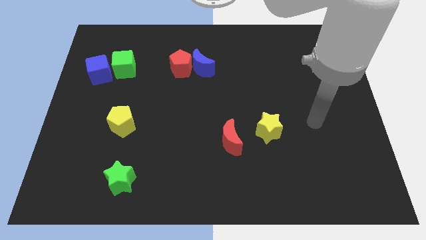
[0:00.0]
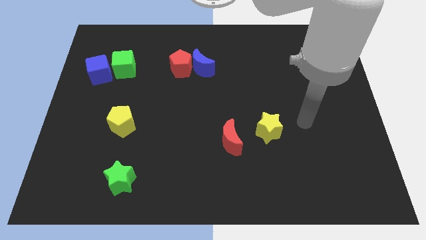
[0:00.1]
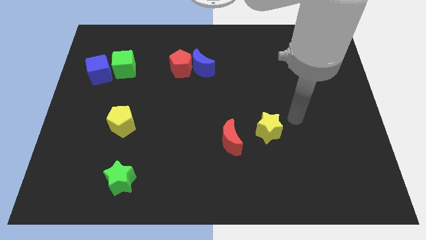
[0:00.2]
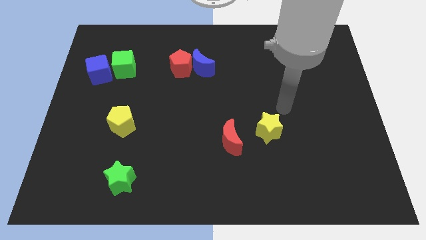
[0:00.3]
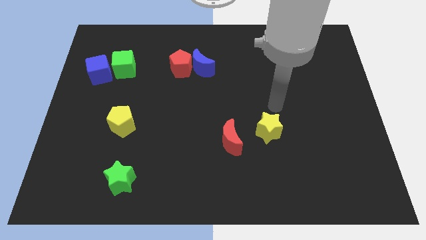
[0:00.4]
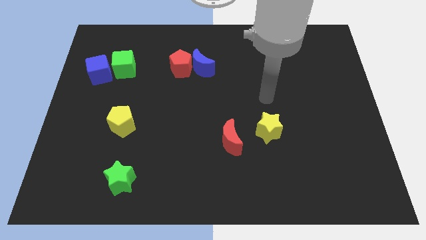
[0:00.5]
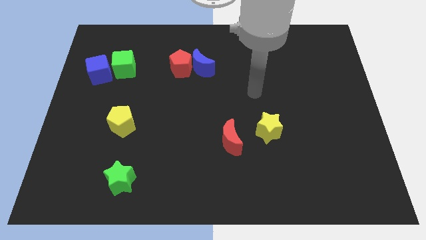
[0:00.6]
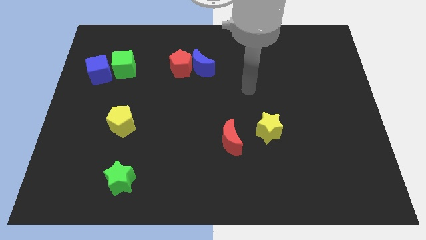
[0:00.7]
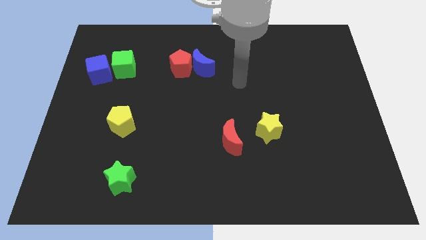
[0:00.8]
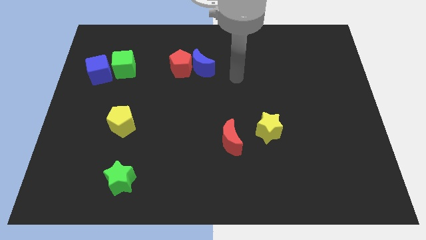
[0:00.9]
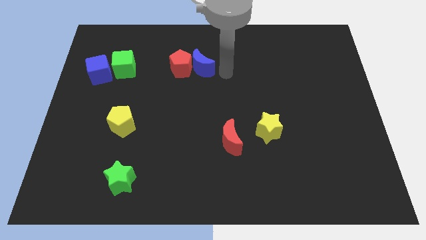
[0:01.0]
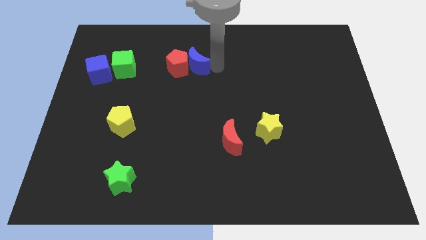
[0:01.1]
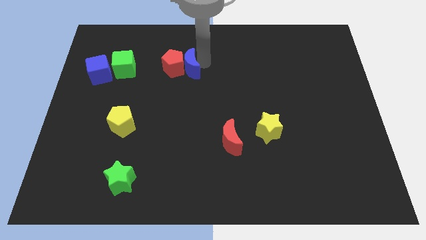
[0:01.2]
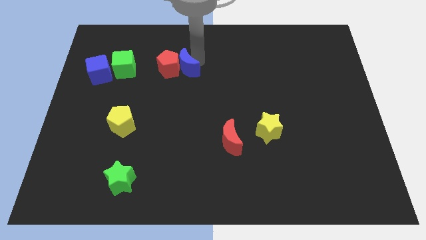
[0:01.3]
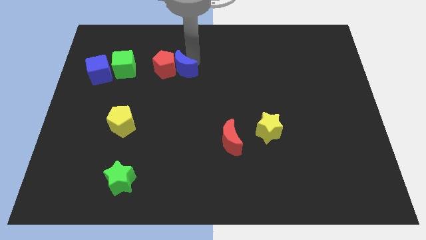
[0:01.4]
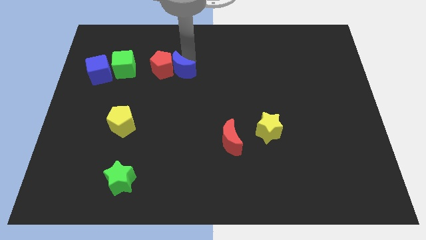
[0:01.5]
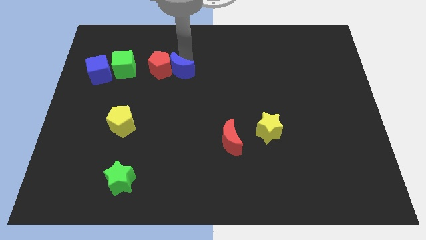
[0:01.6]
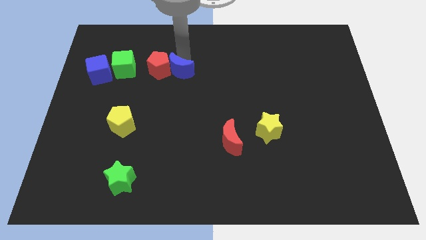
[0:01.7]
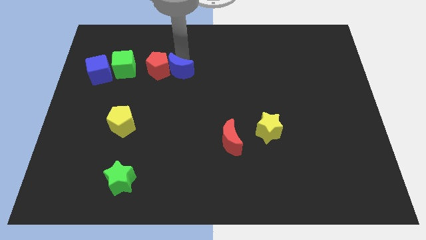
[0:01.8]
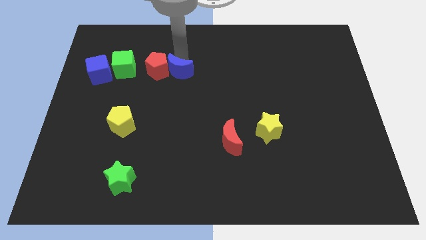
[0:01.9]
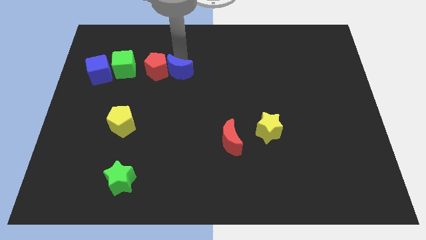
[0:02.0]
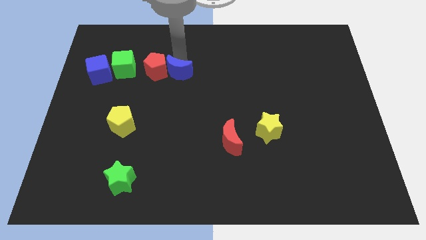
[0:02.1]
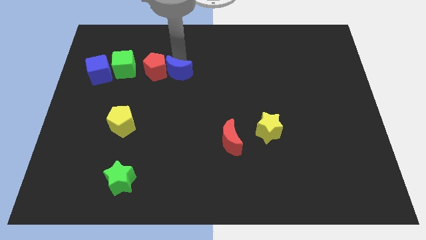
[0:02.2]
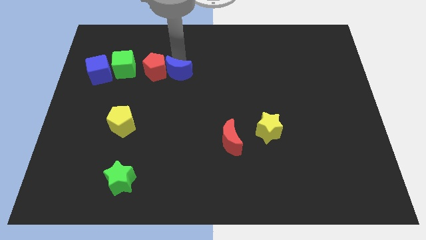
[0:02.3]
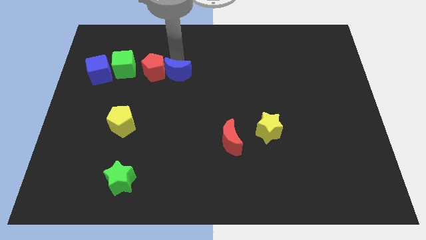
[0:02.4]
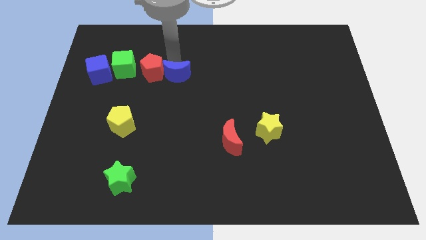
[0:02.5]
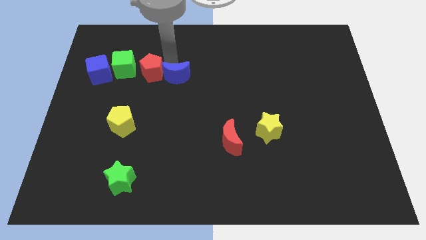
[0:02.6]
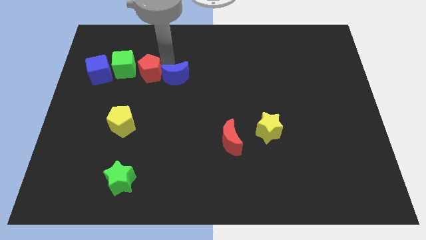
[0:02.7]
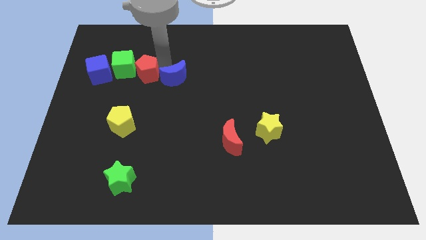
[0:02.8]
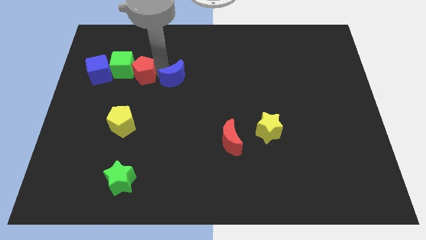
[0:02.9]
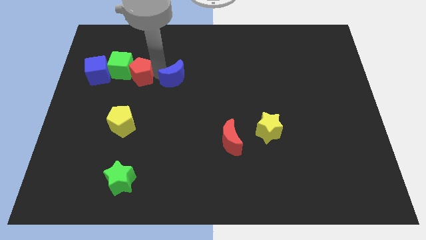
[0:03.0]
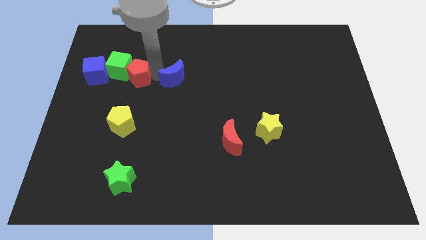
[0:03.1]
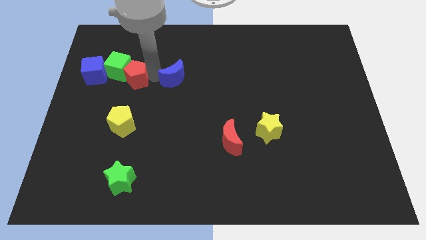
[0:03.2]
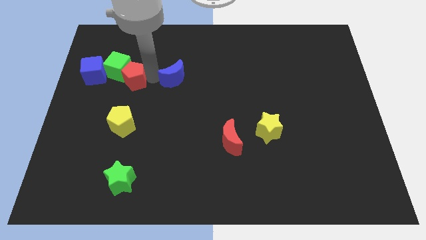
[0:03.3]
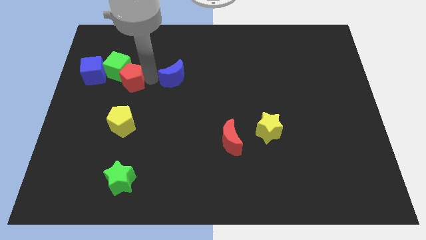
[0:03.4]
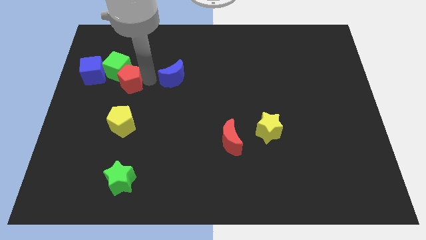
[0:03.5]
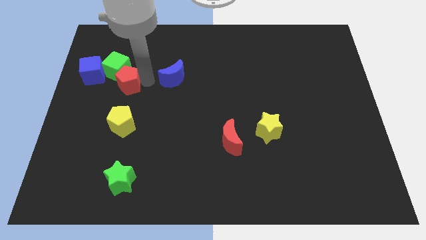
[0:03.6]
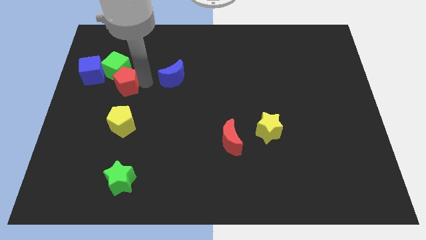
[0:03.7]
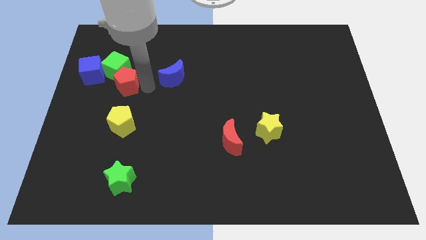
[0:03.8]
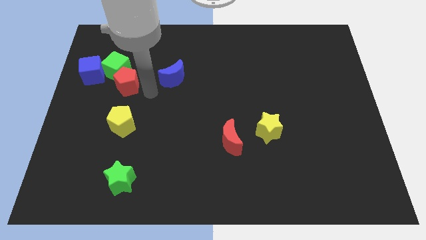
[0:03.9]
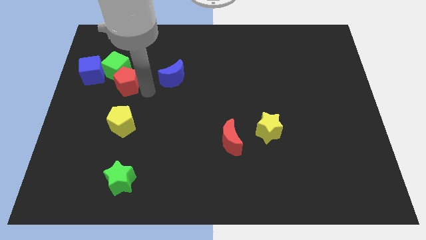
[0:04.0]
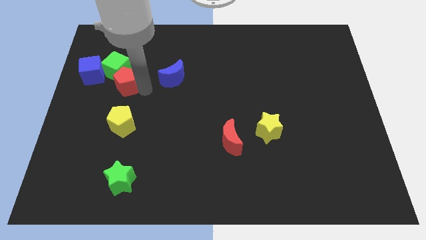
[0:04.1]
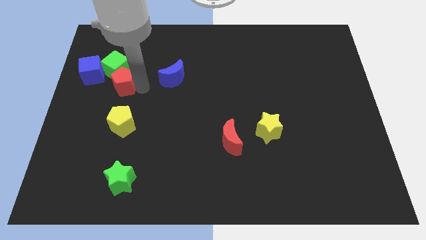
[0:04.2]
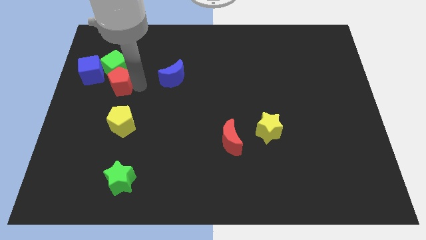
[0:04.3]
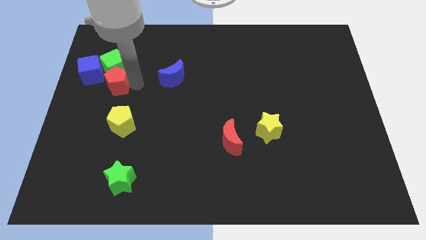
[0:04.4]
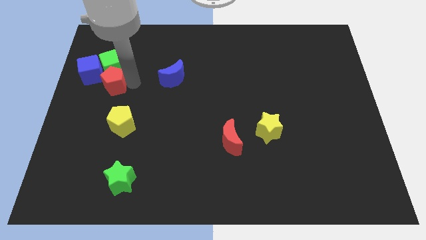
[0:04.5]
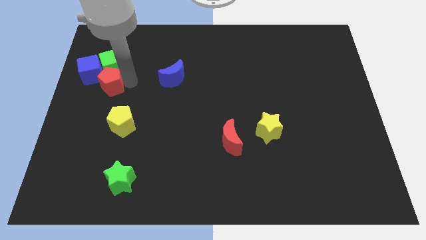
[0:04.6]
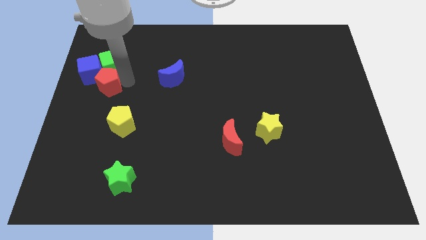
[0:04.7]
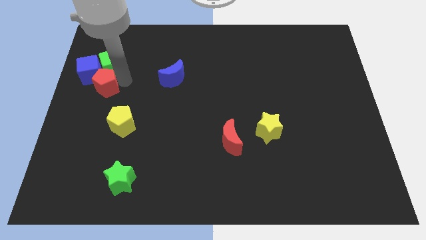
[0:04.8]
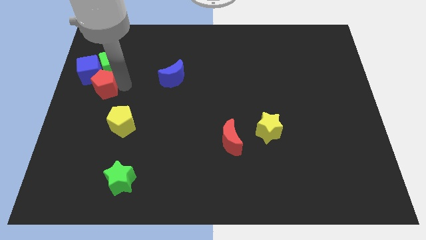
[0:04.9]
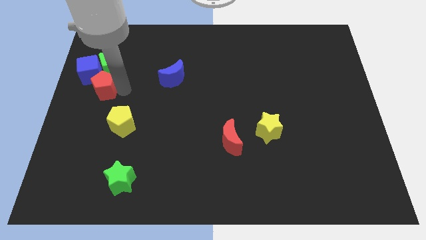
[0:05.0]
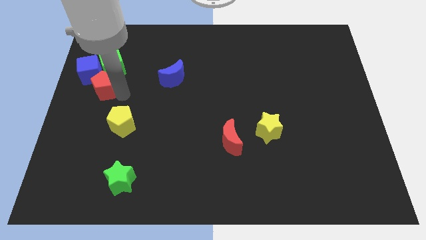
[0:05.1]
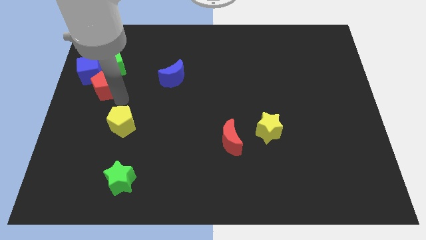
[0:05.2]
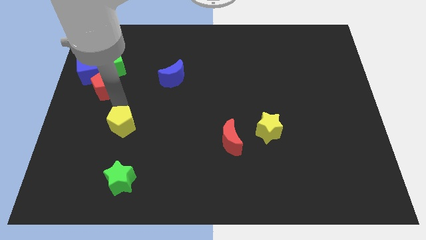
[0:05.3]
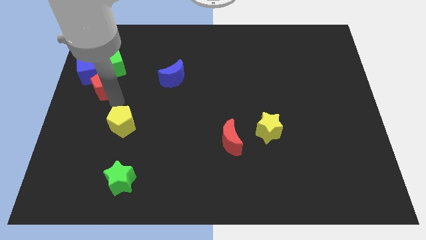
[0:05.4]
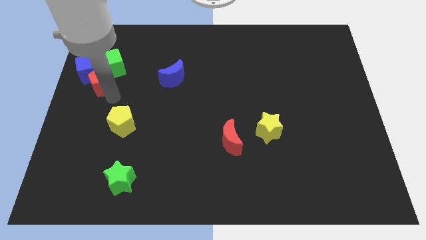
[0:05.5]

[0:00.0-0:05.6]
push the red pentagon close to the blue cube

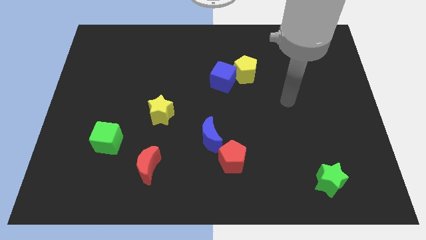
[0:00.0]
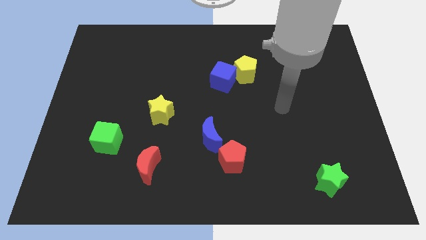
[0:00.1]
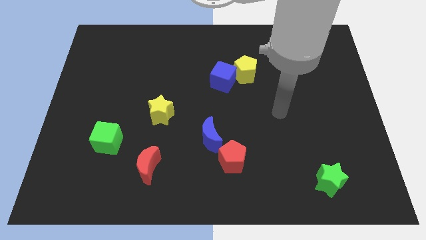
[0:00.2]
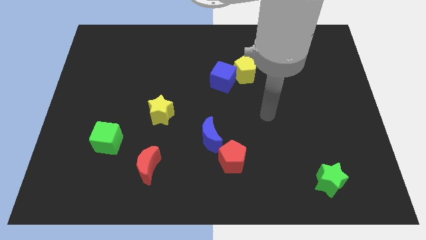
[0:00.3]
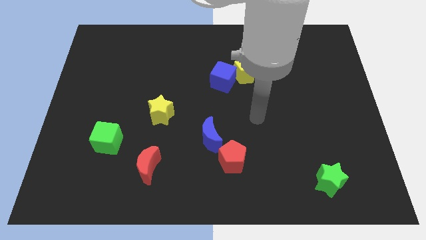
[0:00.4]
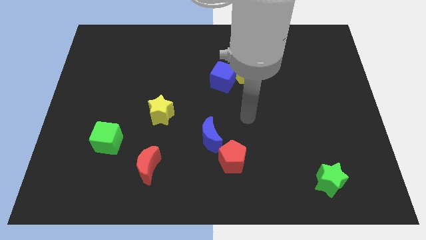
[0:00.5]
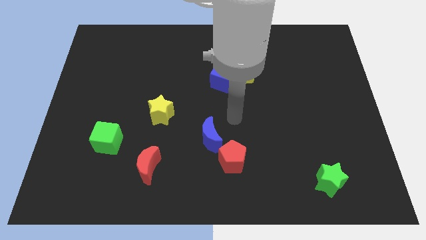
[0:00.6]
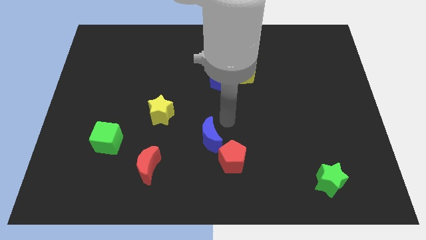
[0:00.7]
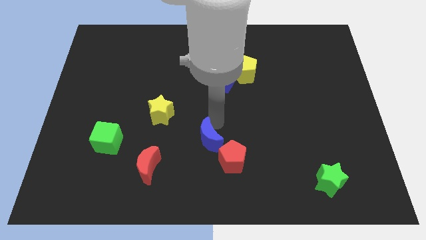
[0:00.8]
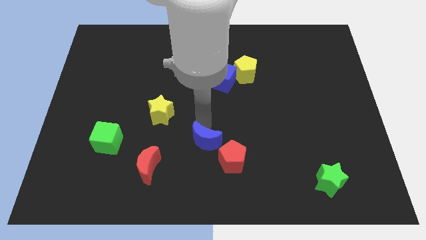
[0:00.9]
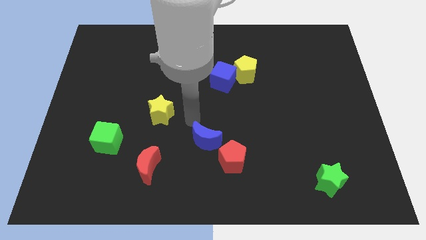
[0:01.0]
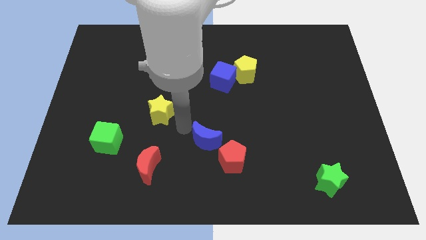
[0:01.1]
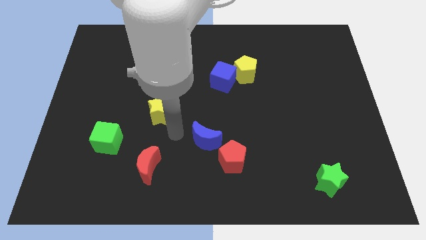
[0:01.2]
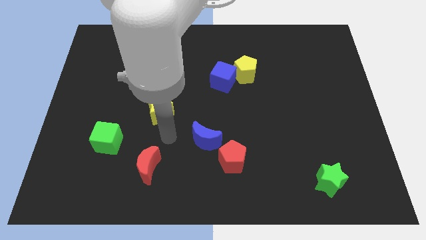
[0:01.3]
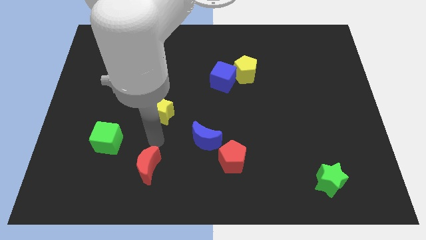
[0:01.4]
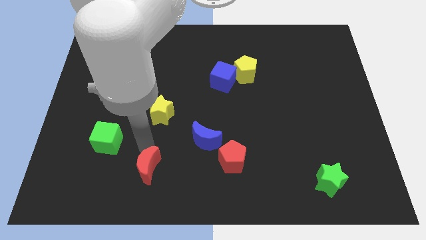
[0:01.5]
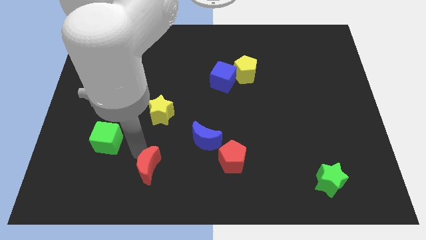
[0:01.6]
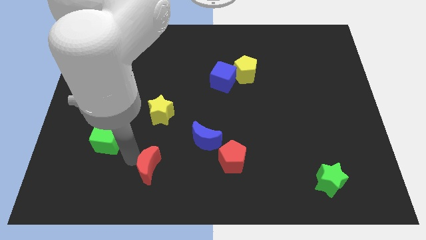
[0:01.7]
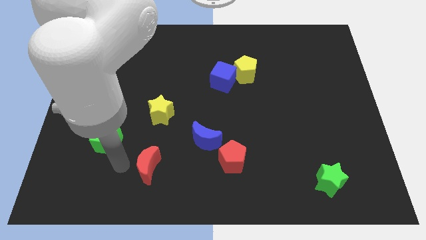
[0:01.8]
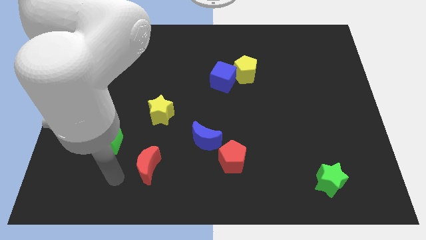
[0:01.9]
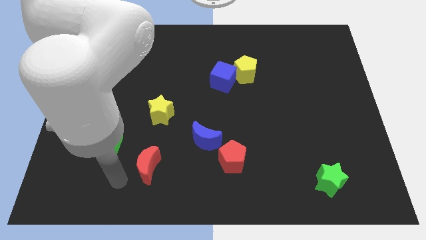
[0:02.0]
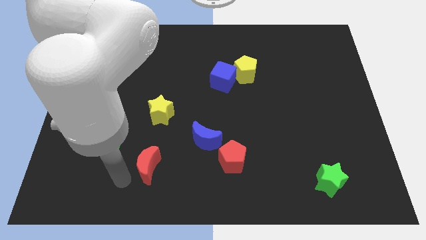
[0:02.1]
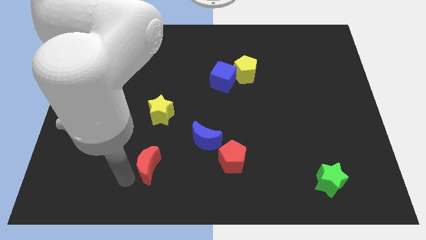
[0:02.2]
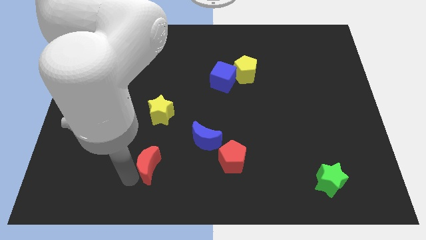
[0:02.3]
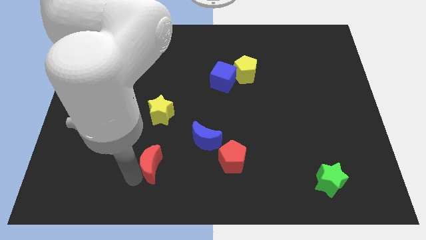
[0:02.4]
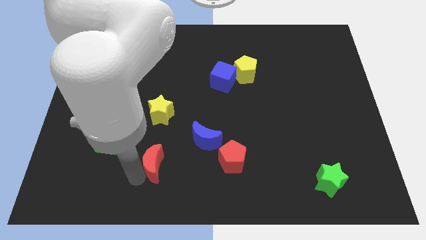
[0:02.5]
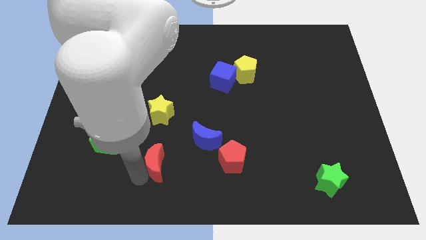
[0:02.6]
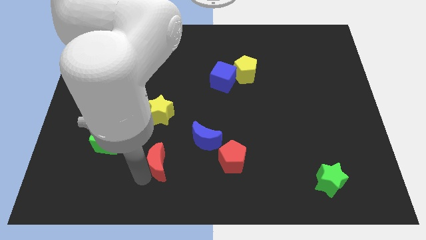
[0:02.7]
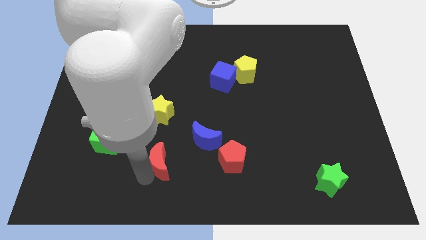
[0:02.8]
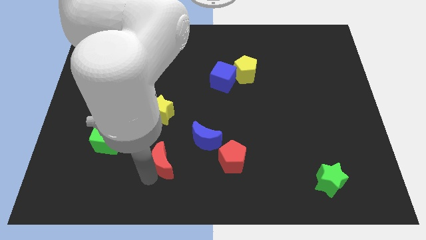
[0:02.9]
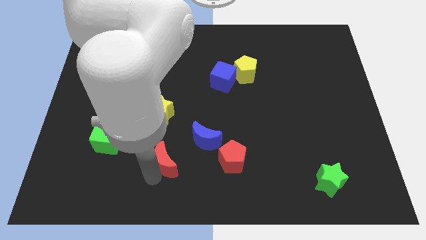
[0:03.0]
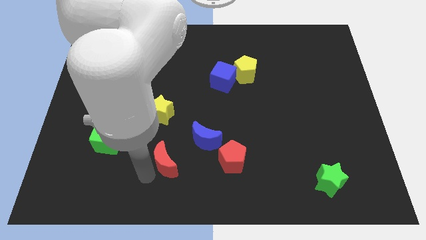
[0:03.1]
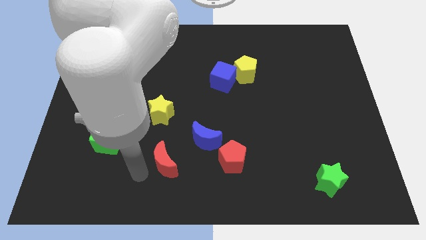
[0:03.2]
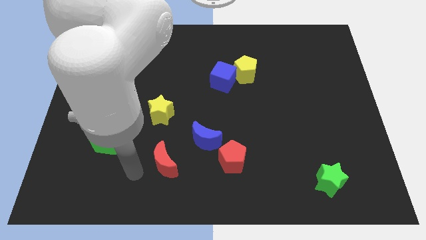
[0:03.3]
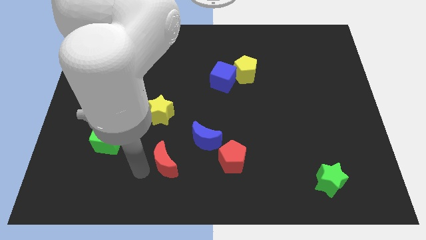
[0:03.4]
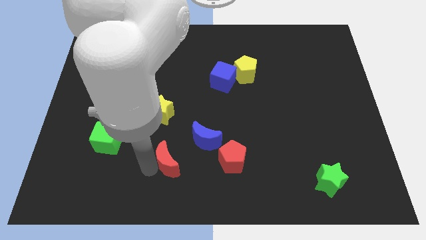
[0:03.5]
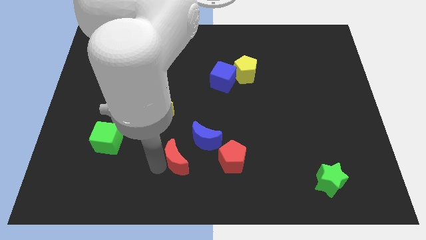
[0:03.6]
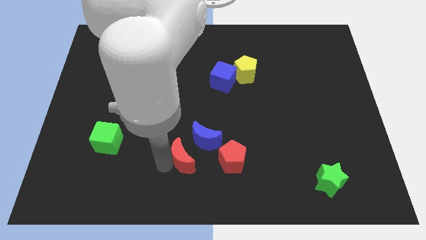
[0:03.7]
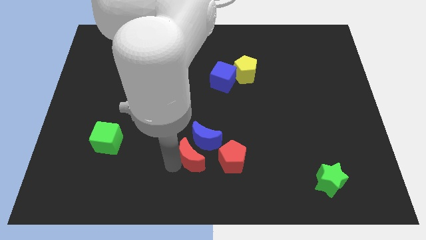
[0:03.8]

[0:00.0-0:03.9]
slide the red moon to the blue moon
